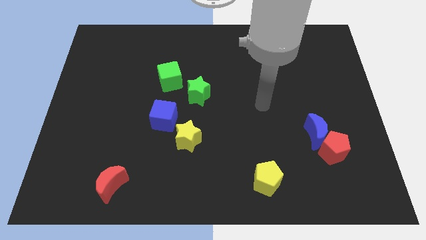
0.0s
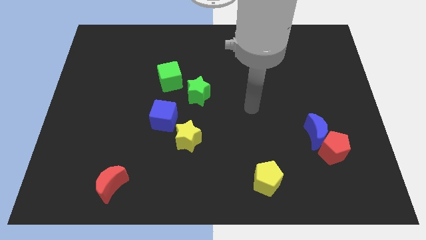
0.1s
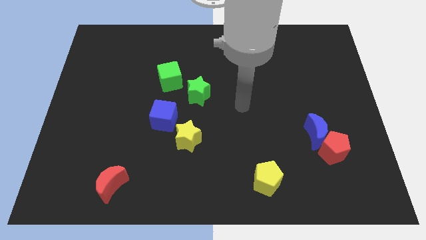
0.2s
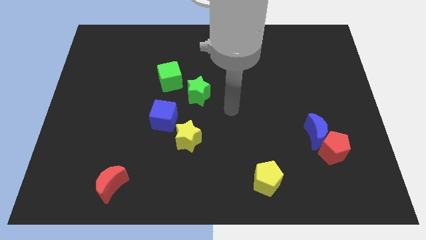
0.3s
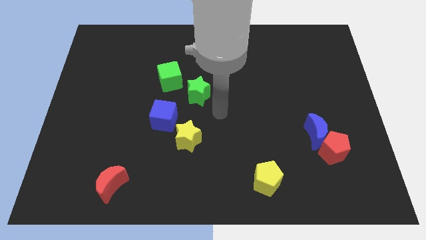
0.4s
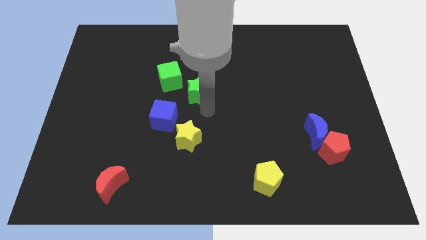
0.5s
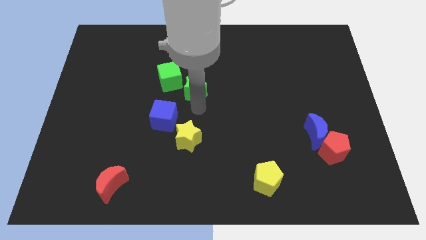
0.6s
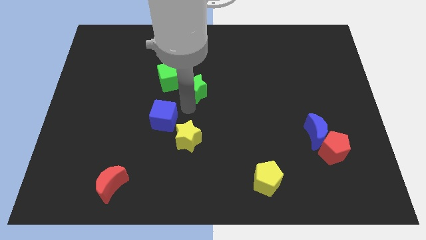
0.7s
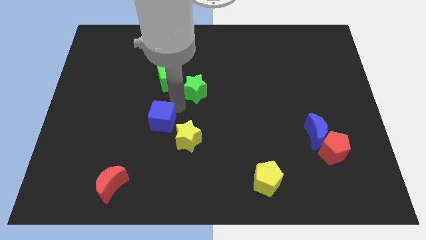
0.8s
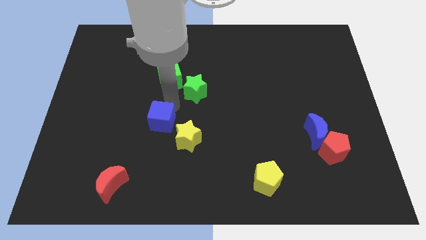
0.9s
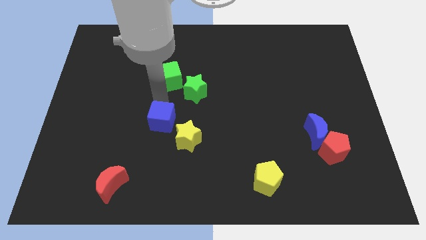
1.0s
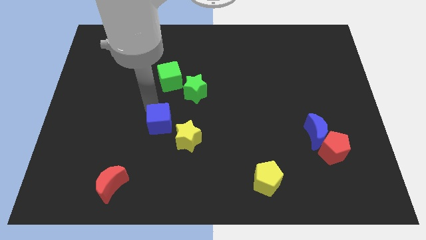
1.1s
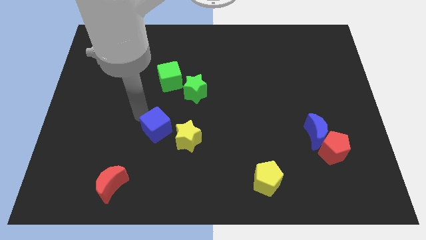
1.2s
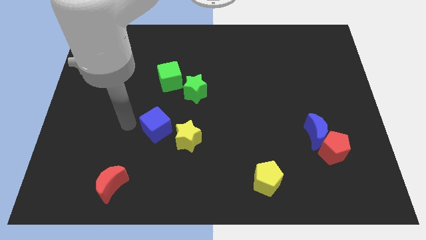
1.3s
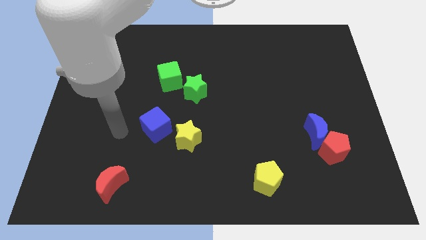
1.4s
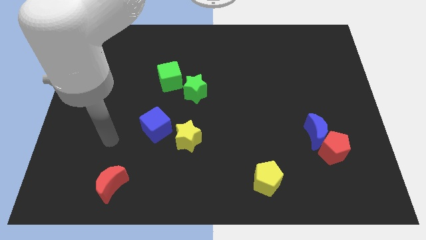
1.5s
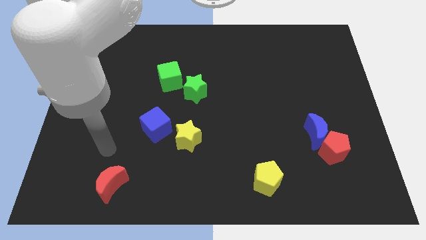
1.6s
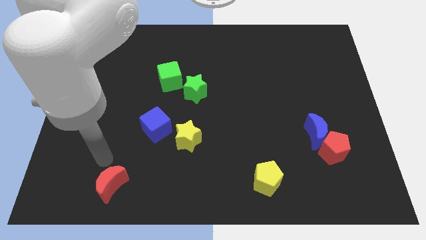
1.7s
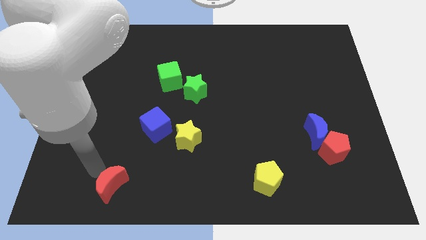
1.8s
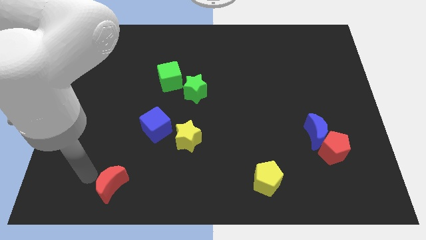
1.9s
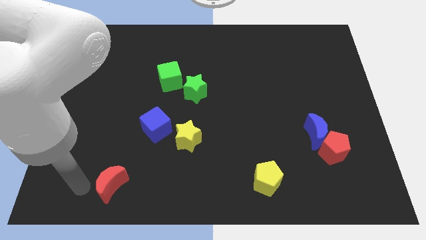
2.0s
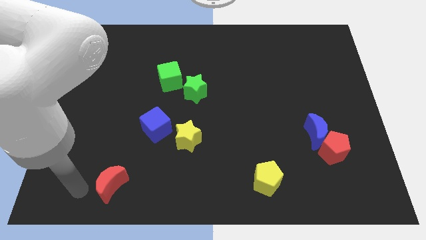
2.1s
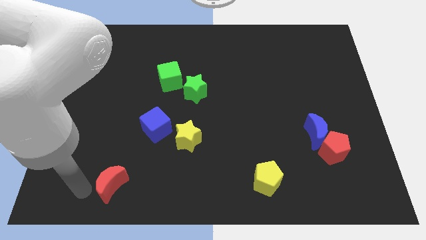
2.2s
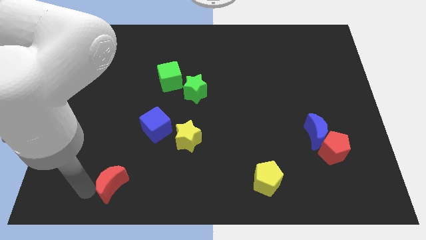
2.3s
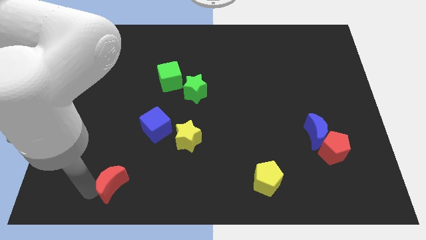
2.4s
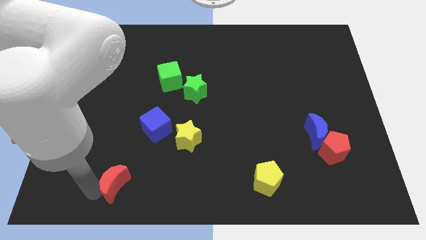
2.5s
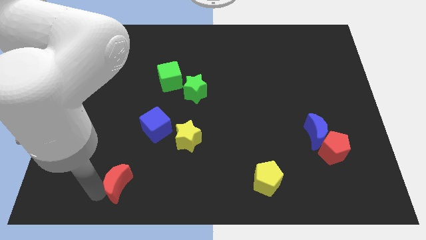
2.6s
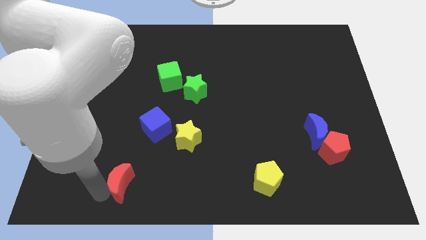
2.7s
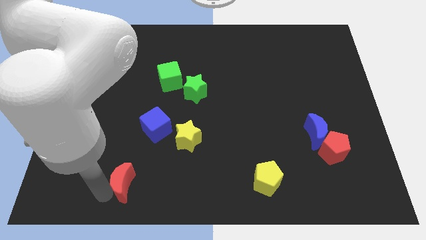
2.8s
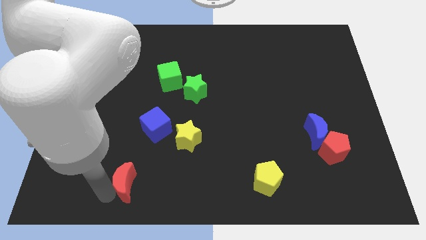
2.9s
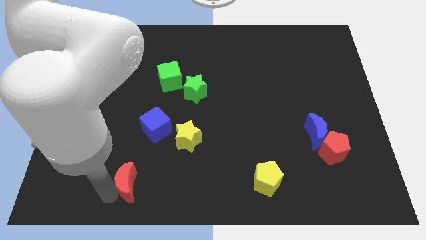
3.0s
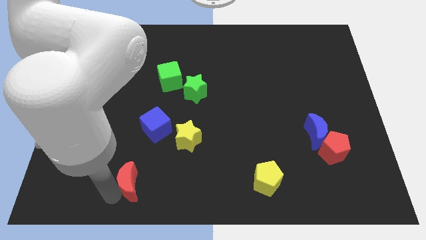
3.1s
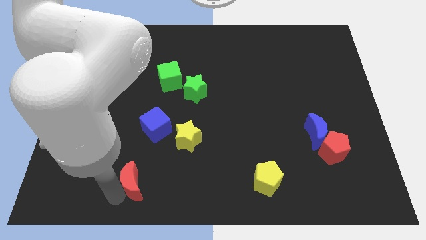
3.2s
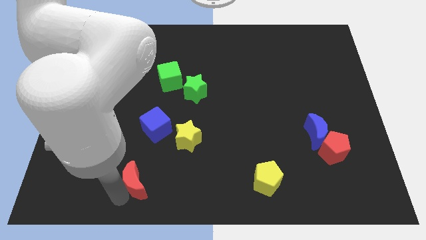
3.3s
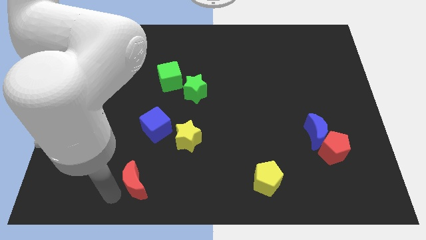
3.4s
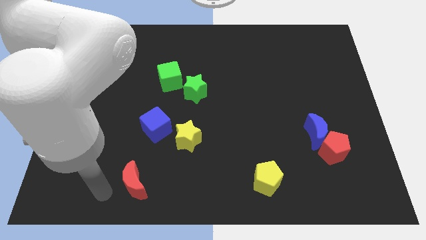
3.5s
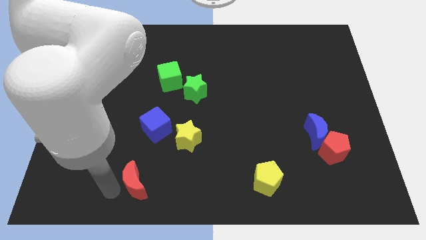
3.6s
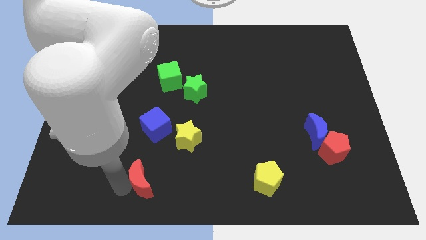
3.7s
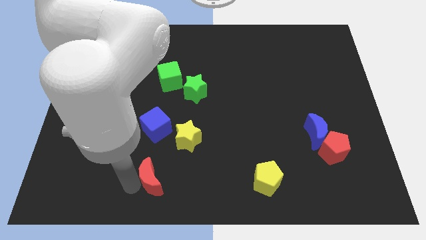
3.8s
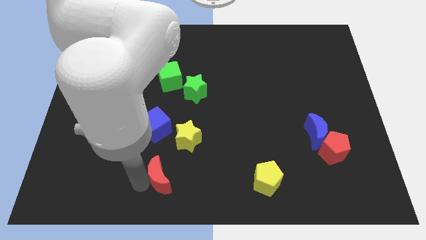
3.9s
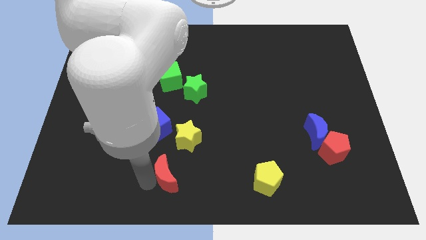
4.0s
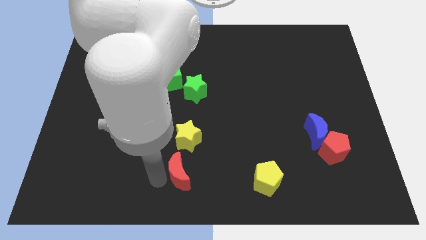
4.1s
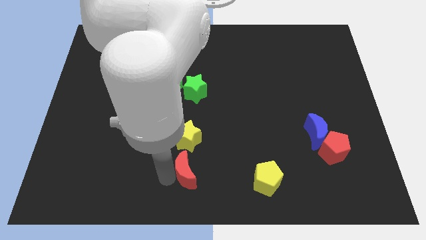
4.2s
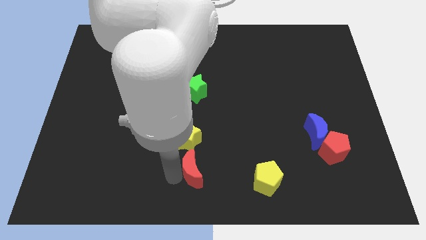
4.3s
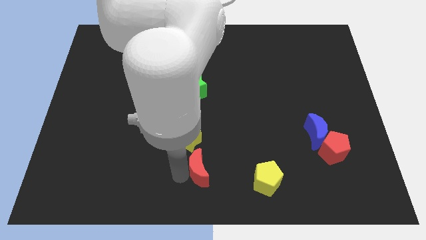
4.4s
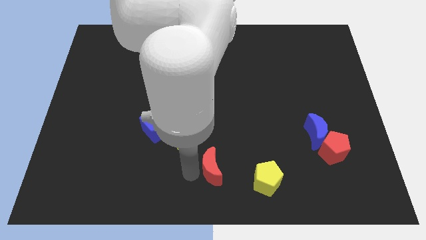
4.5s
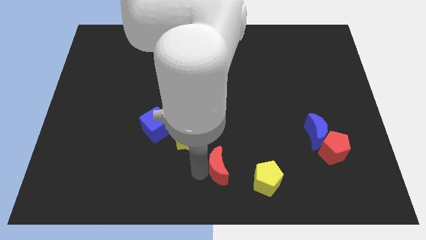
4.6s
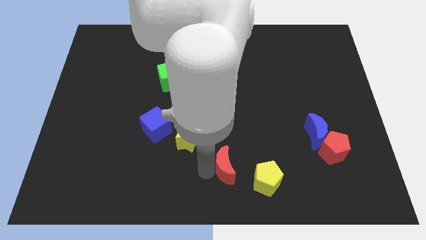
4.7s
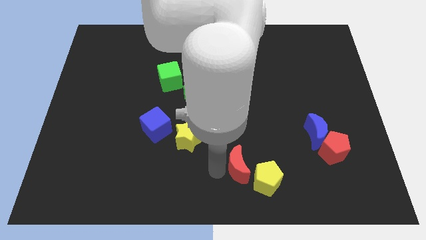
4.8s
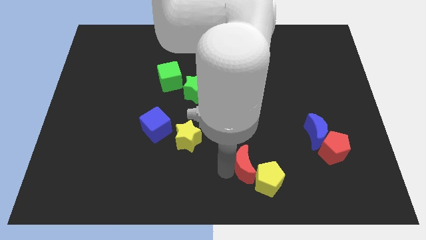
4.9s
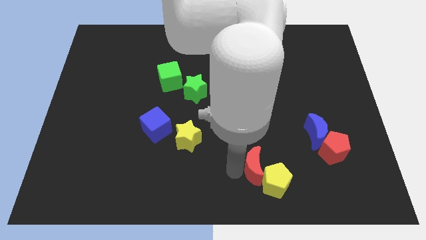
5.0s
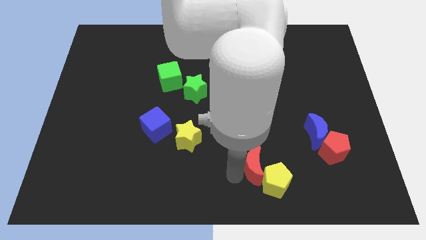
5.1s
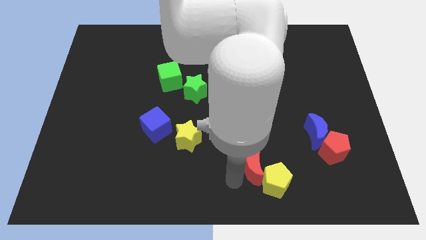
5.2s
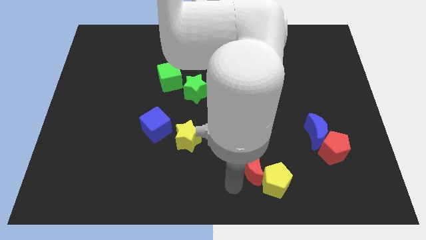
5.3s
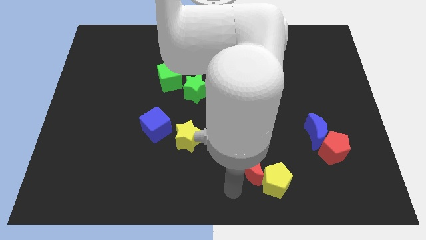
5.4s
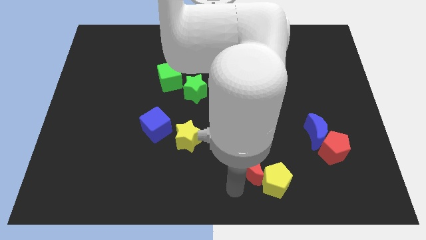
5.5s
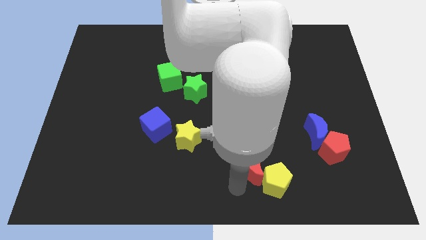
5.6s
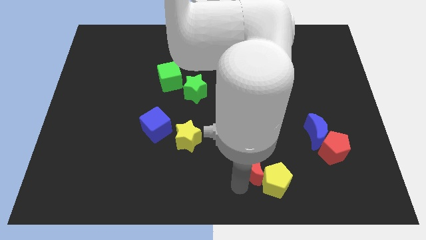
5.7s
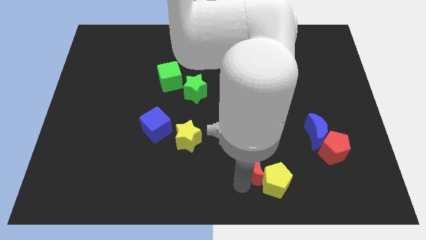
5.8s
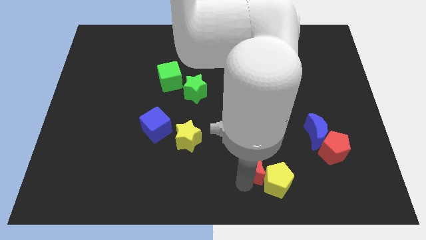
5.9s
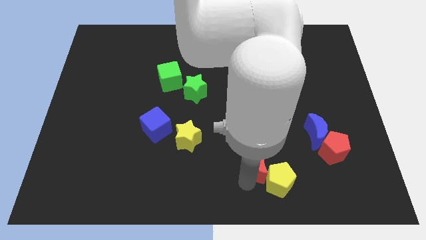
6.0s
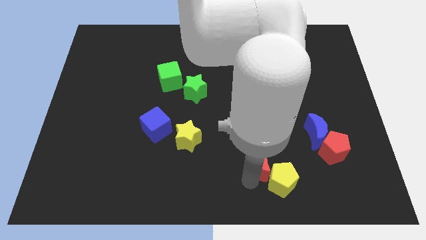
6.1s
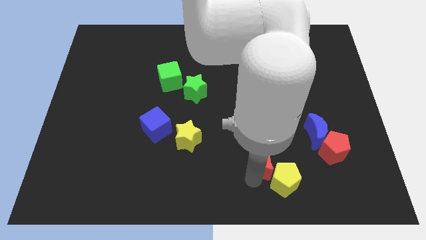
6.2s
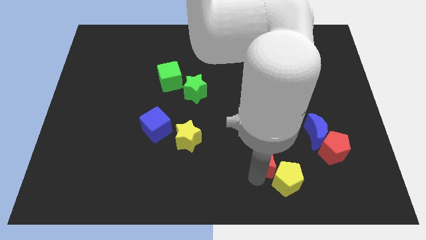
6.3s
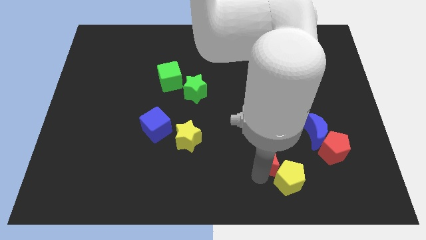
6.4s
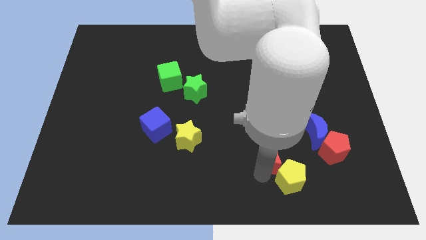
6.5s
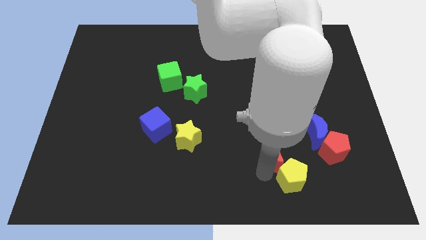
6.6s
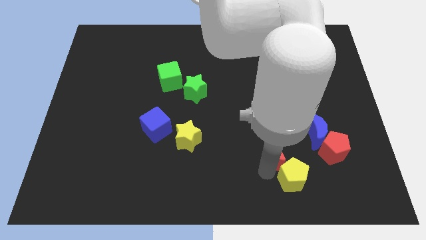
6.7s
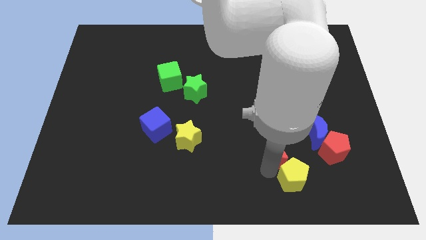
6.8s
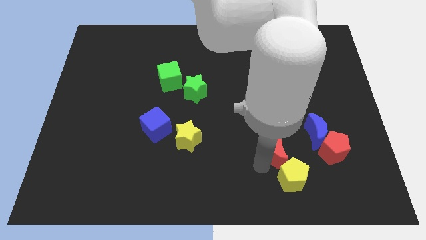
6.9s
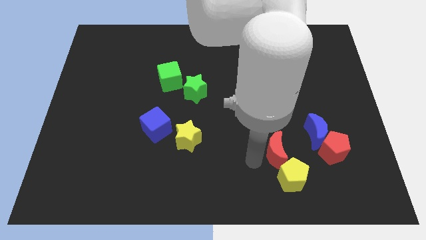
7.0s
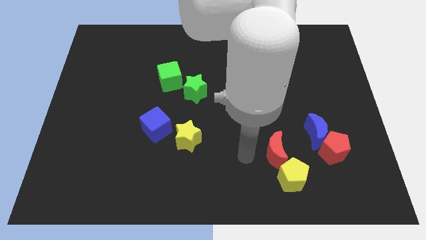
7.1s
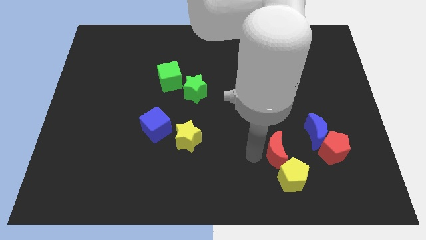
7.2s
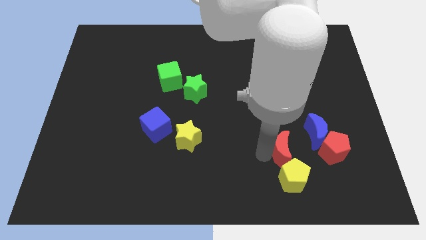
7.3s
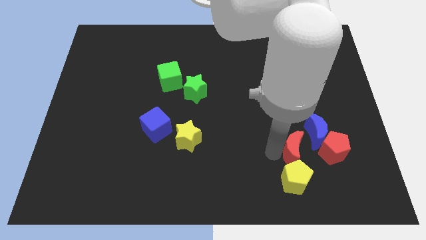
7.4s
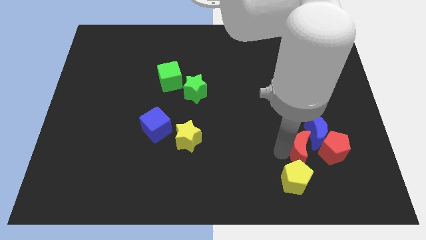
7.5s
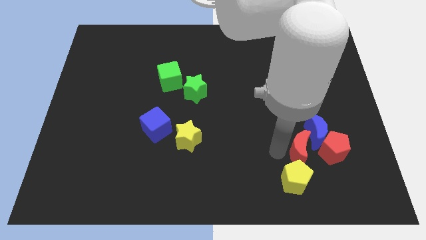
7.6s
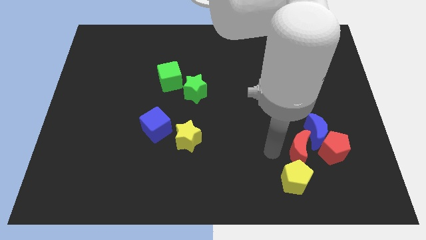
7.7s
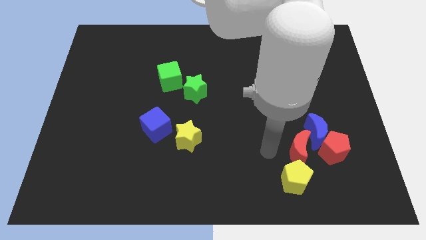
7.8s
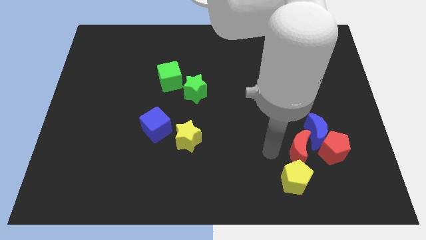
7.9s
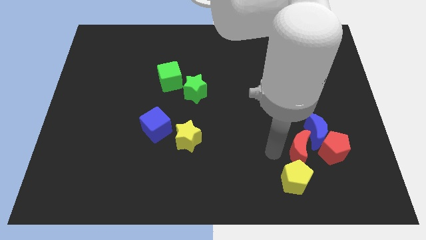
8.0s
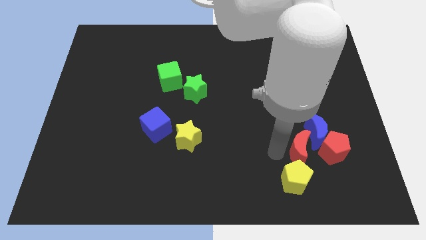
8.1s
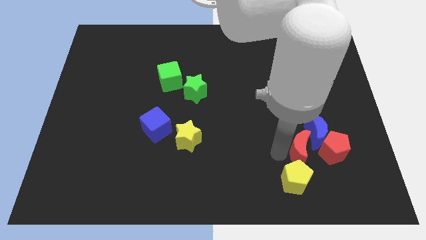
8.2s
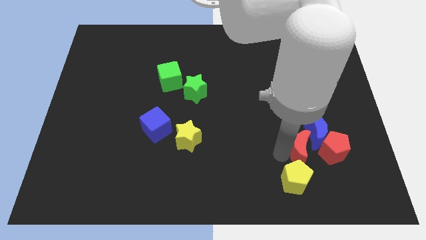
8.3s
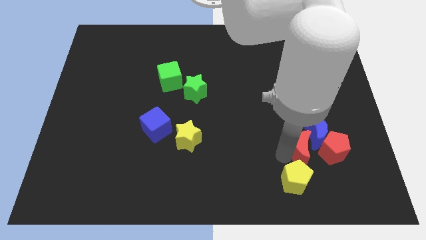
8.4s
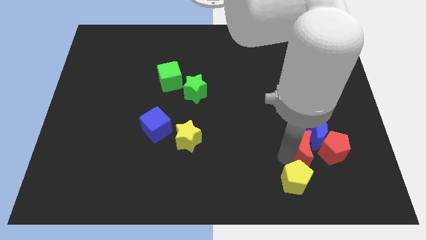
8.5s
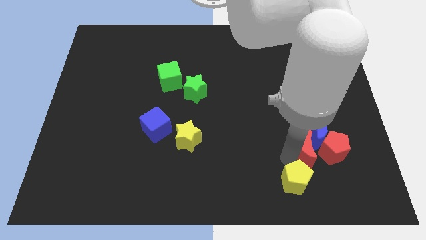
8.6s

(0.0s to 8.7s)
slide the red moon close to the red pentagon
